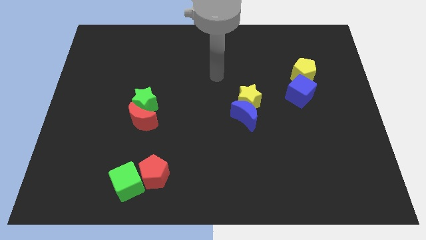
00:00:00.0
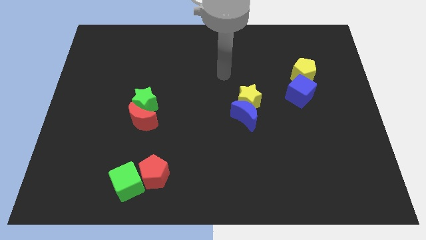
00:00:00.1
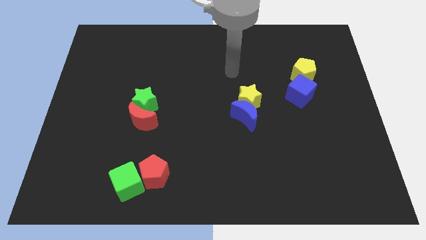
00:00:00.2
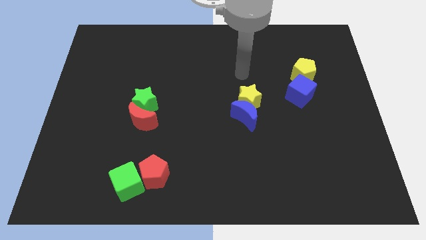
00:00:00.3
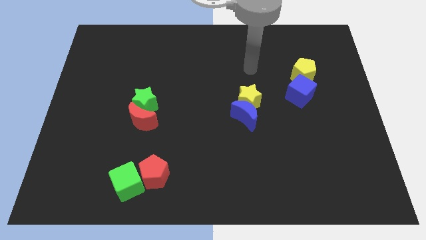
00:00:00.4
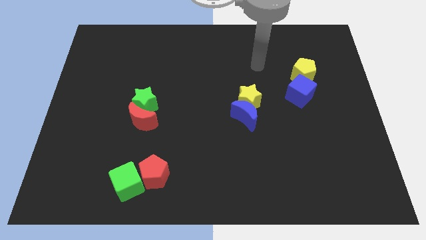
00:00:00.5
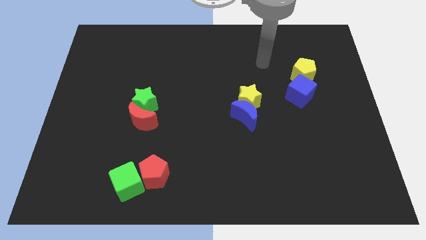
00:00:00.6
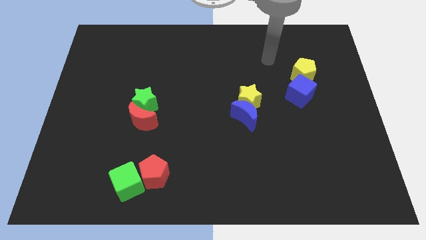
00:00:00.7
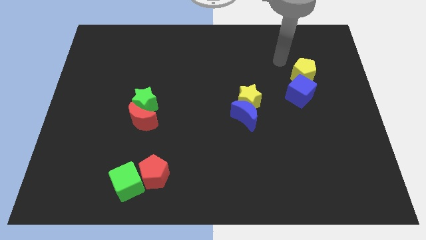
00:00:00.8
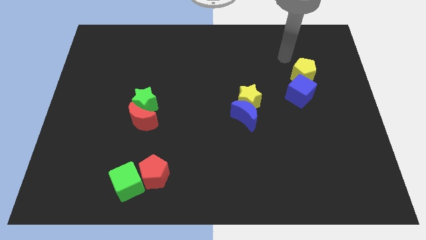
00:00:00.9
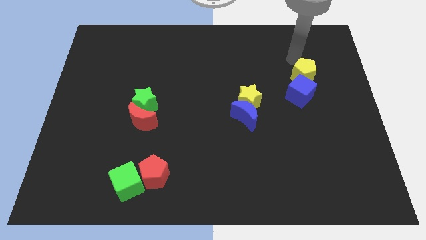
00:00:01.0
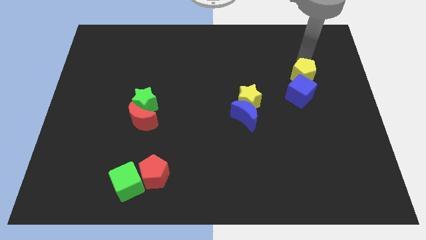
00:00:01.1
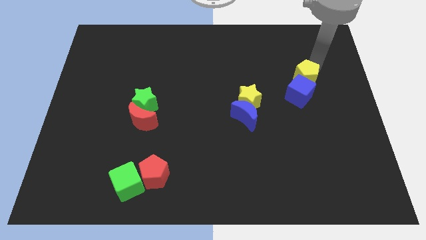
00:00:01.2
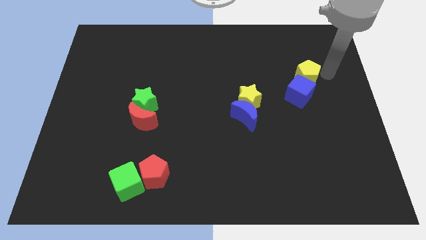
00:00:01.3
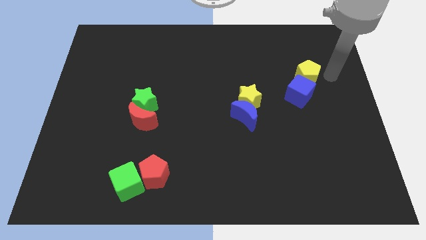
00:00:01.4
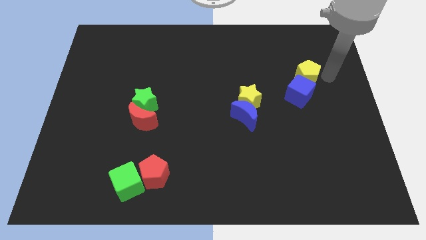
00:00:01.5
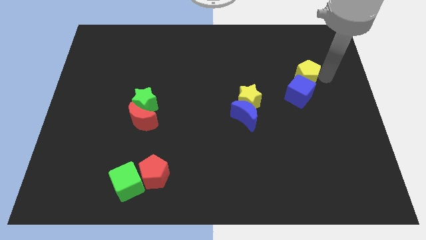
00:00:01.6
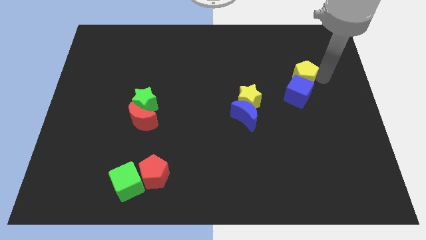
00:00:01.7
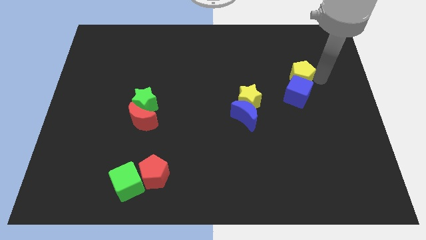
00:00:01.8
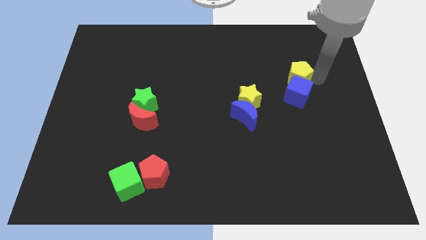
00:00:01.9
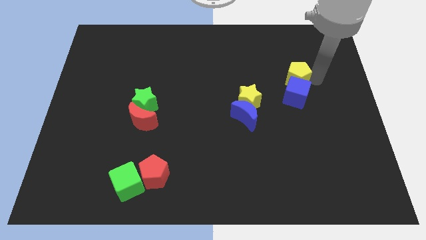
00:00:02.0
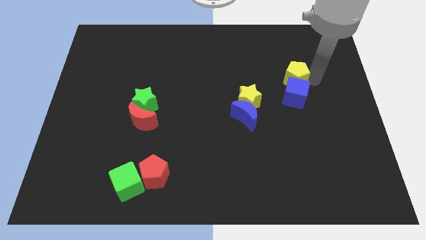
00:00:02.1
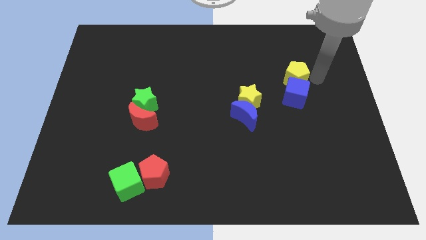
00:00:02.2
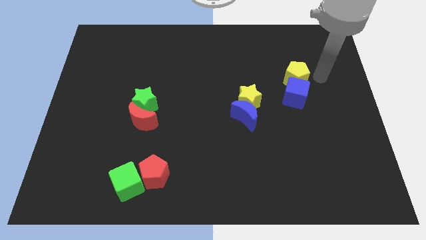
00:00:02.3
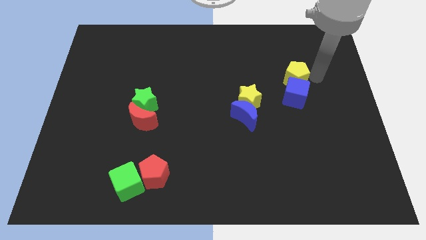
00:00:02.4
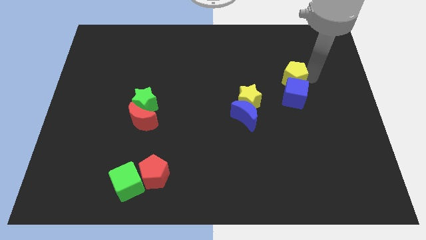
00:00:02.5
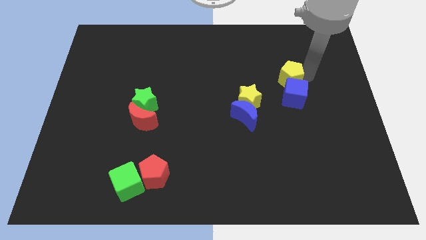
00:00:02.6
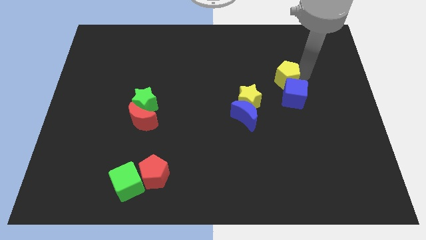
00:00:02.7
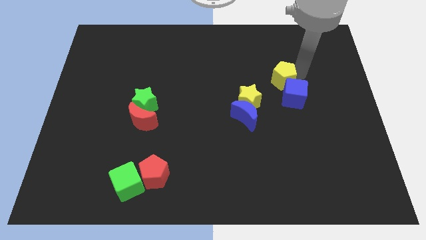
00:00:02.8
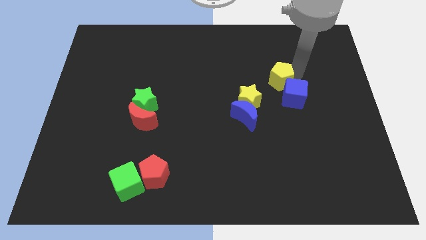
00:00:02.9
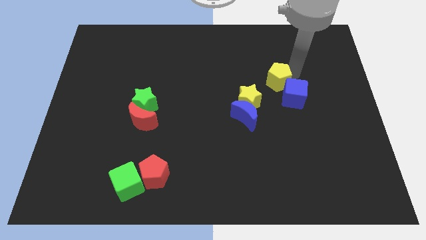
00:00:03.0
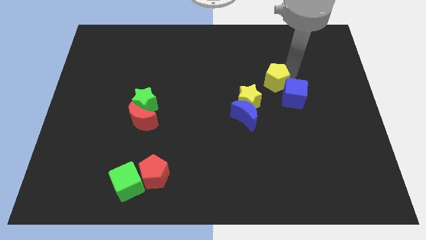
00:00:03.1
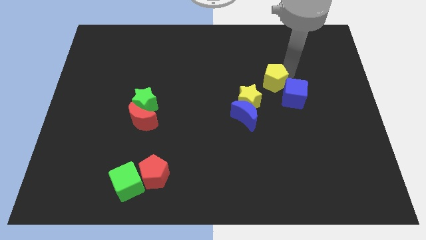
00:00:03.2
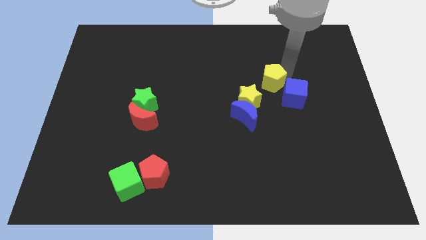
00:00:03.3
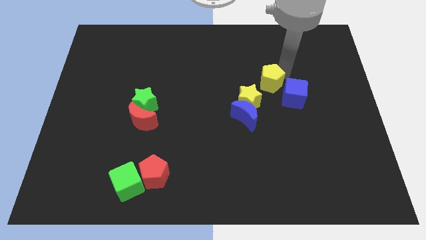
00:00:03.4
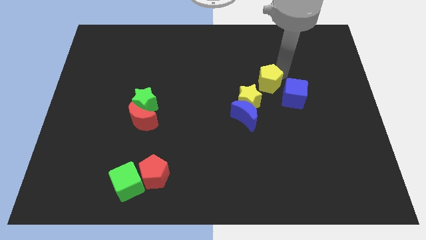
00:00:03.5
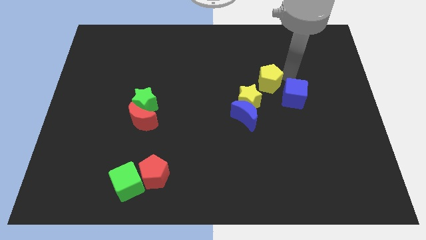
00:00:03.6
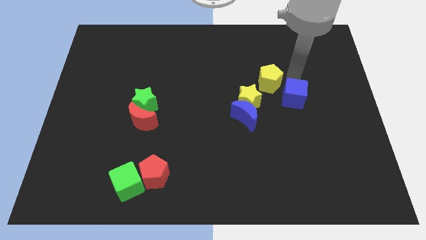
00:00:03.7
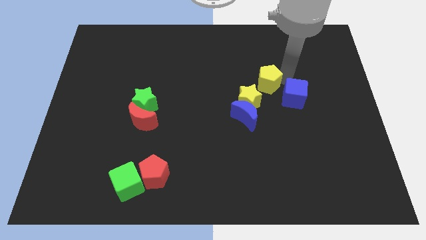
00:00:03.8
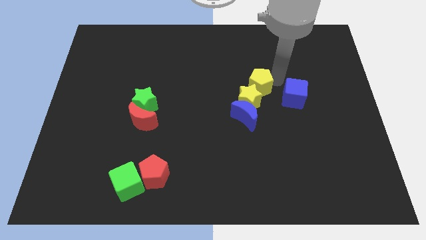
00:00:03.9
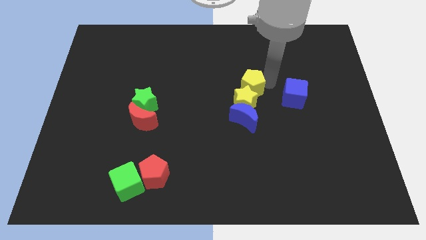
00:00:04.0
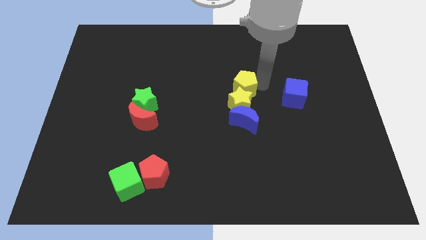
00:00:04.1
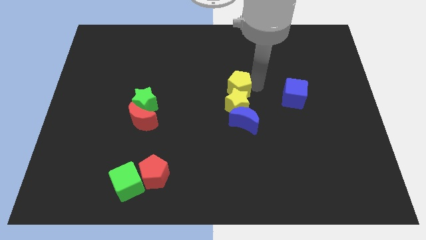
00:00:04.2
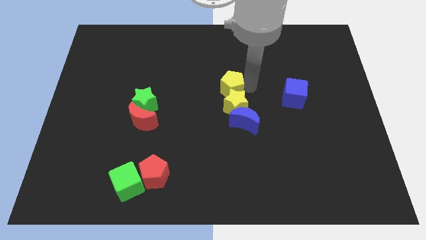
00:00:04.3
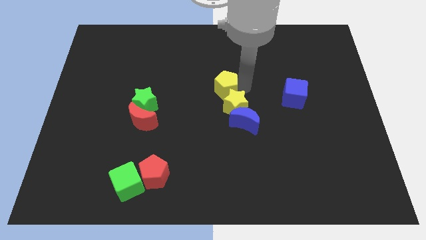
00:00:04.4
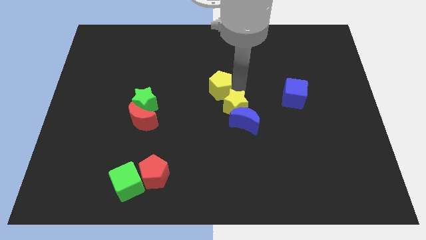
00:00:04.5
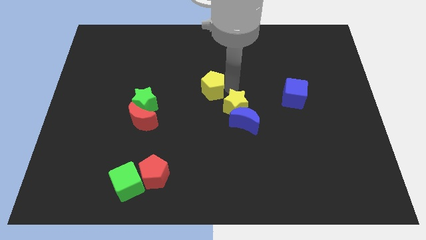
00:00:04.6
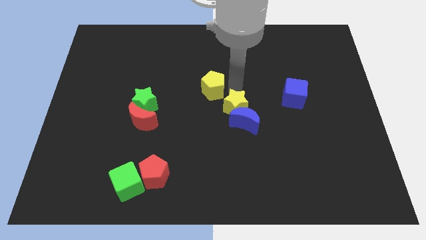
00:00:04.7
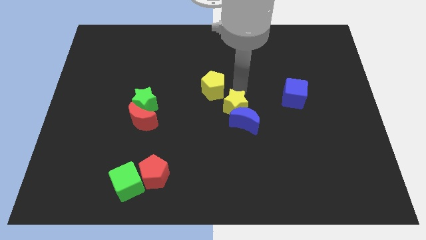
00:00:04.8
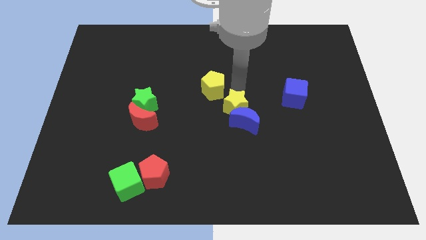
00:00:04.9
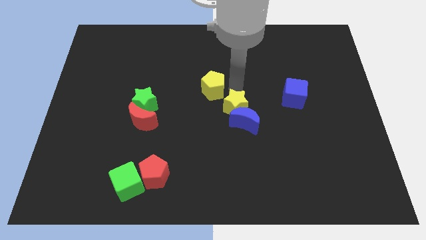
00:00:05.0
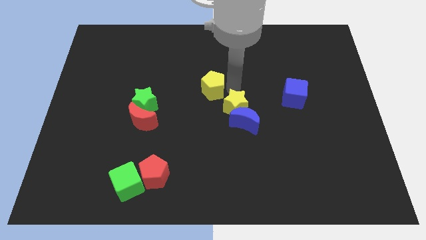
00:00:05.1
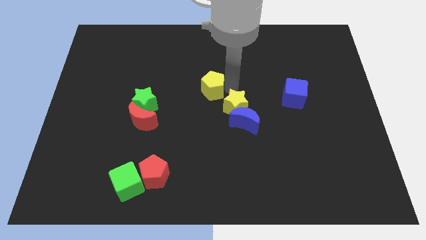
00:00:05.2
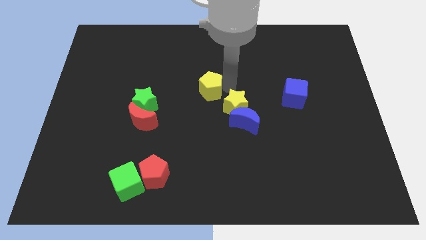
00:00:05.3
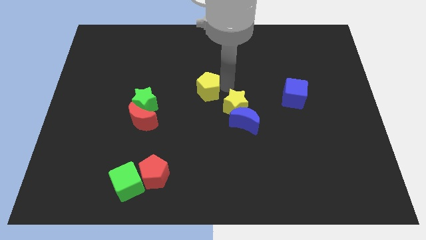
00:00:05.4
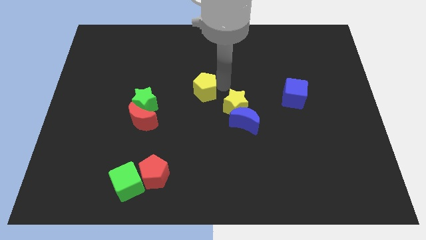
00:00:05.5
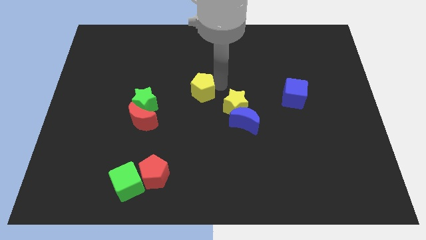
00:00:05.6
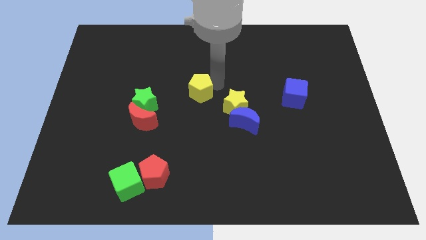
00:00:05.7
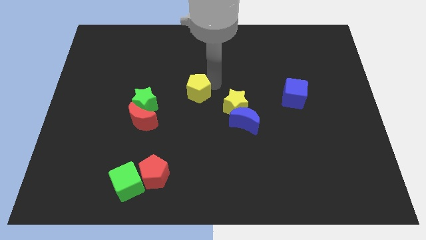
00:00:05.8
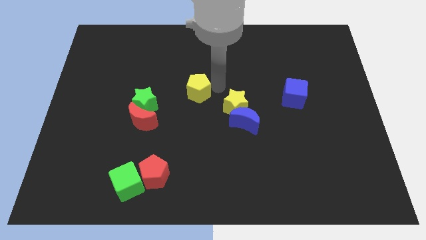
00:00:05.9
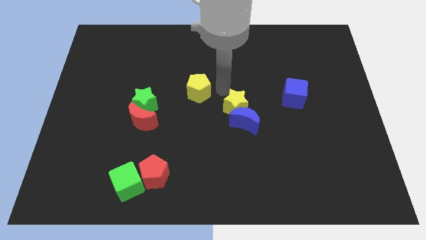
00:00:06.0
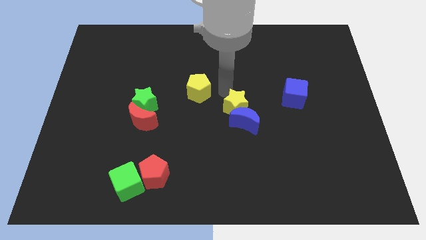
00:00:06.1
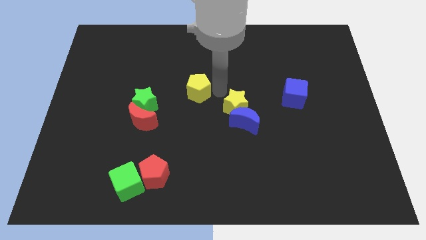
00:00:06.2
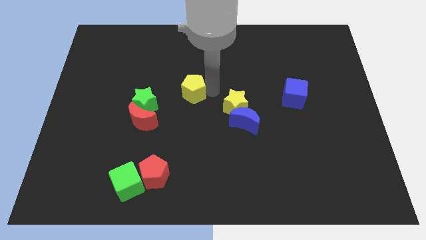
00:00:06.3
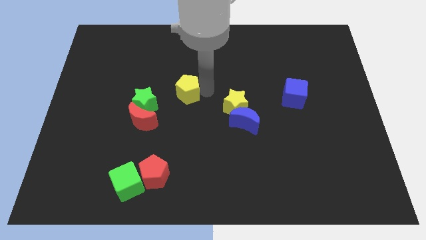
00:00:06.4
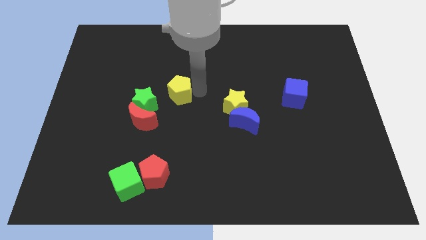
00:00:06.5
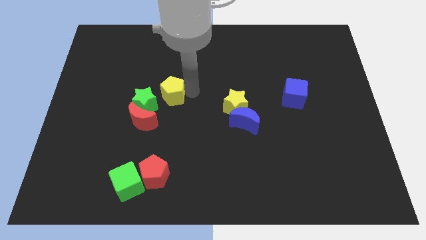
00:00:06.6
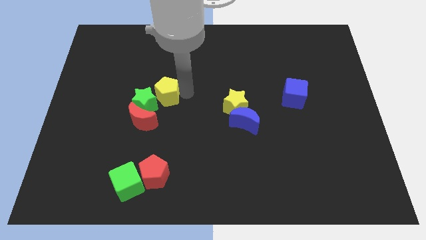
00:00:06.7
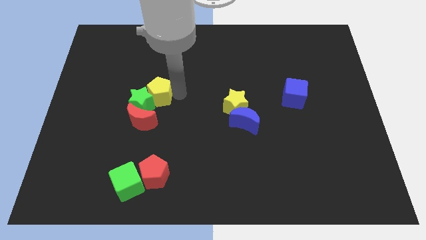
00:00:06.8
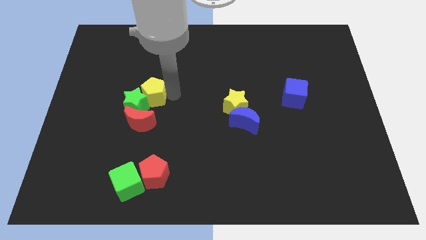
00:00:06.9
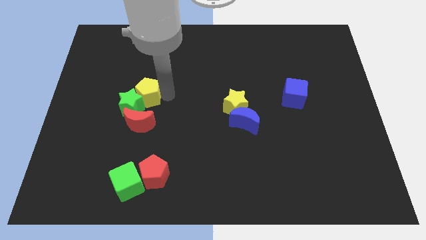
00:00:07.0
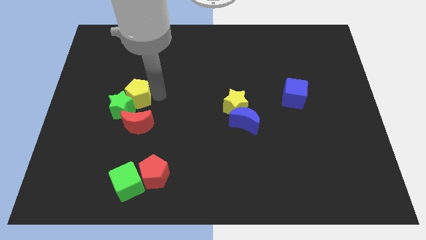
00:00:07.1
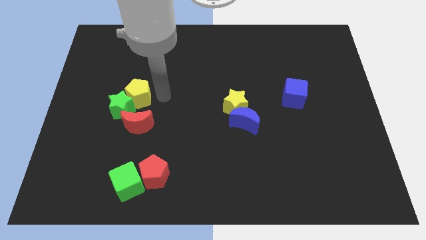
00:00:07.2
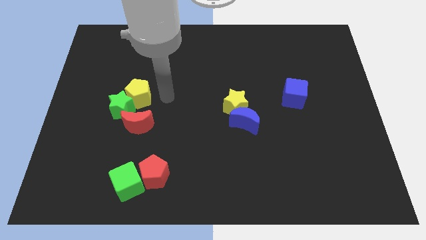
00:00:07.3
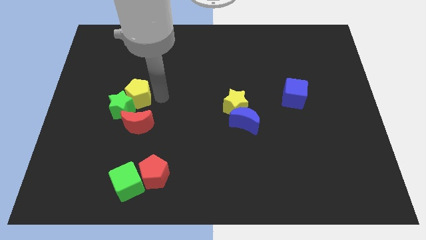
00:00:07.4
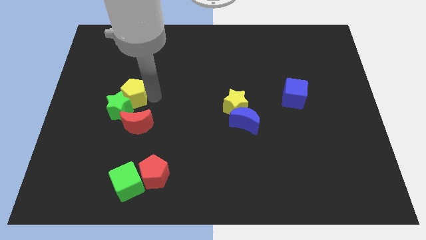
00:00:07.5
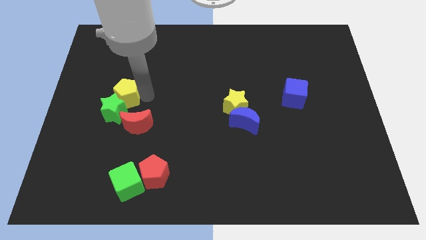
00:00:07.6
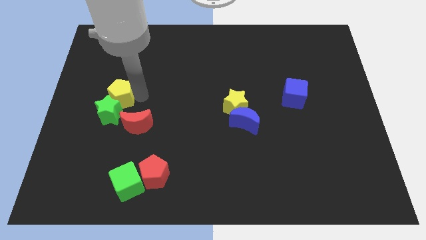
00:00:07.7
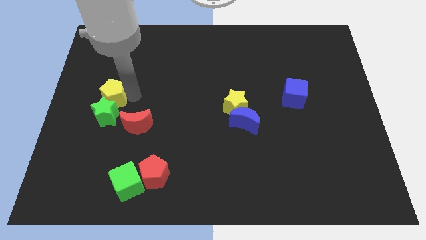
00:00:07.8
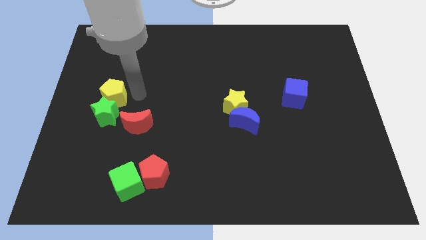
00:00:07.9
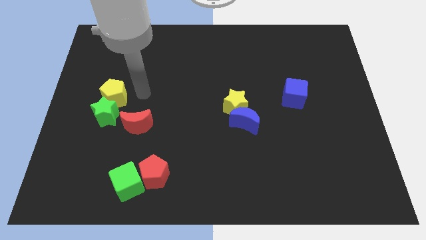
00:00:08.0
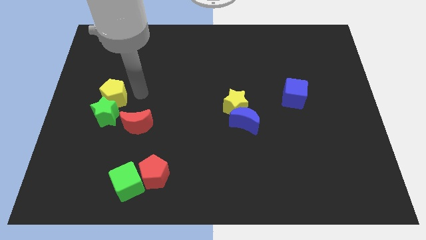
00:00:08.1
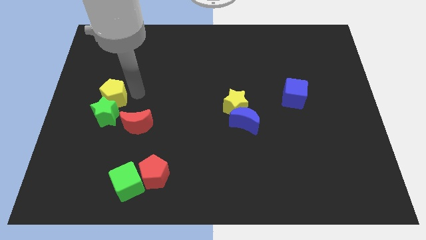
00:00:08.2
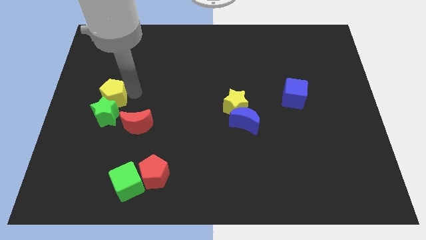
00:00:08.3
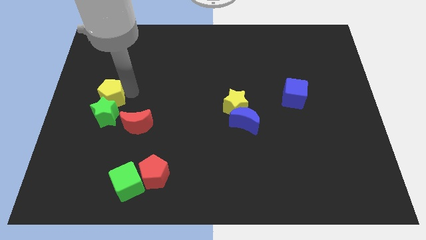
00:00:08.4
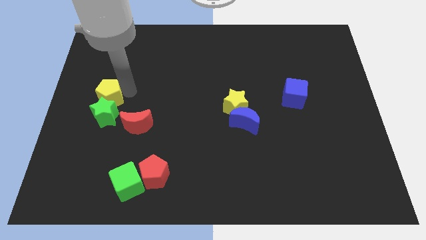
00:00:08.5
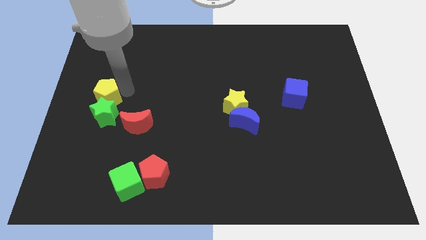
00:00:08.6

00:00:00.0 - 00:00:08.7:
move the yellow pentagon to the left side
